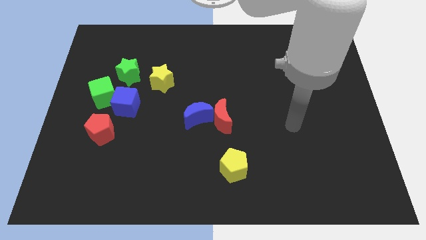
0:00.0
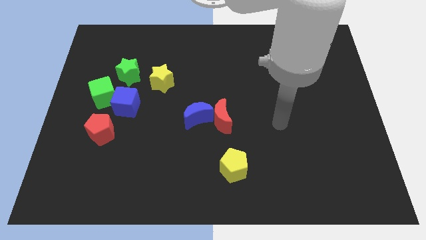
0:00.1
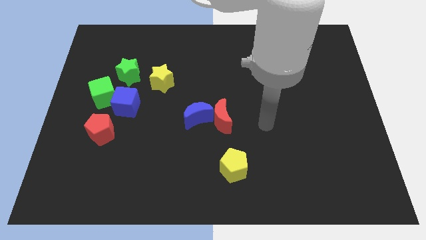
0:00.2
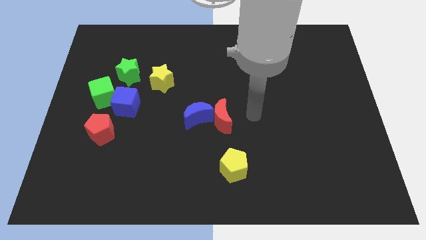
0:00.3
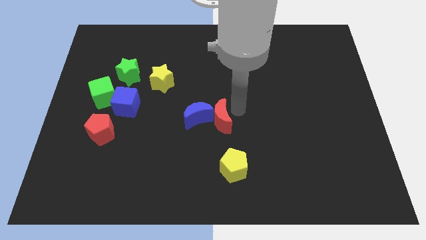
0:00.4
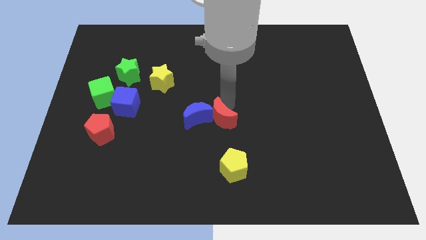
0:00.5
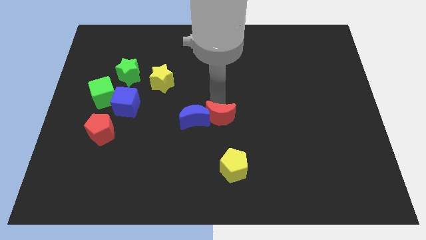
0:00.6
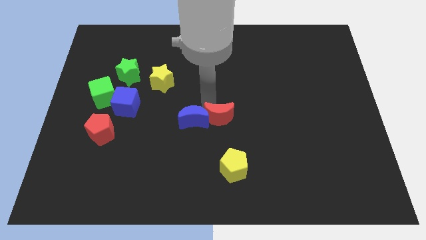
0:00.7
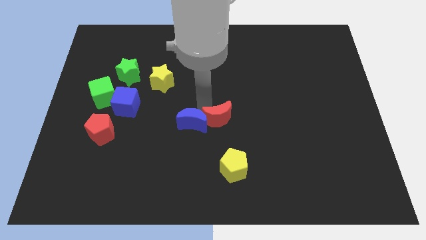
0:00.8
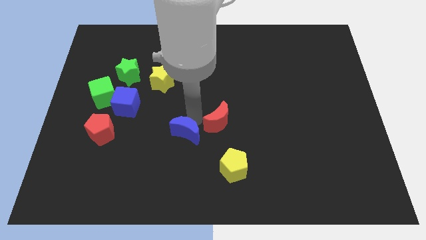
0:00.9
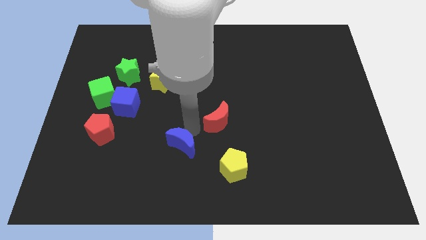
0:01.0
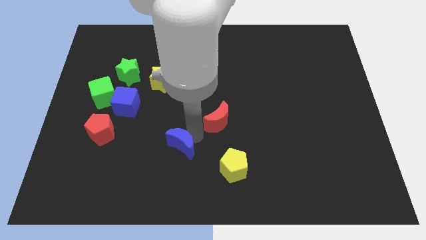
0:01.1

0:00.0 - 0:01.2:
separate the red moon from the blue moon

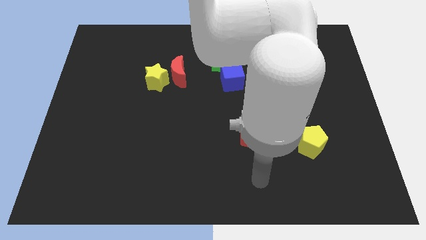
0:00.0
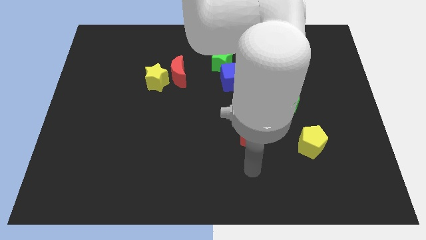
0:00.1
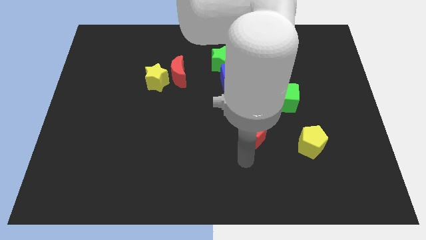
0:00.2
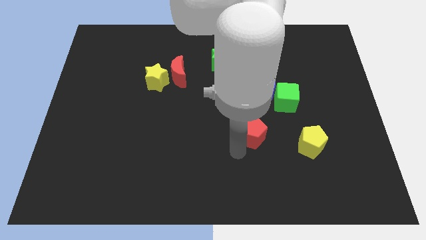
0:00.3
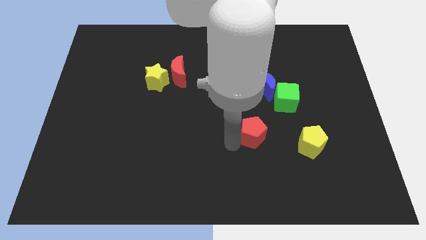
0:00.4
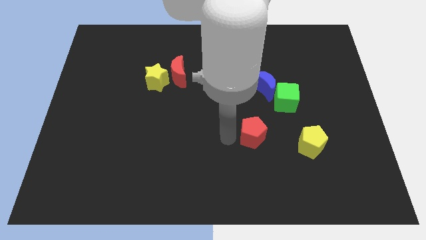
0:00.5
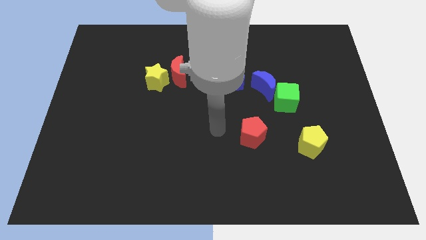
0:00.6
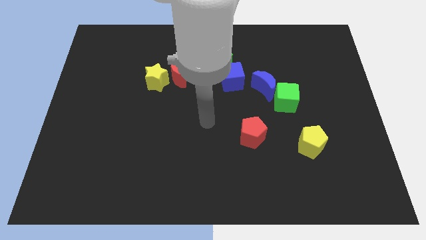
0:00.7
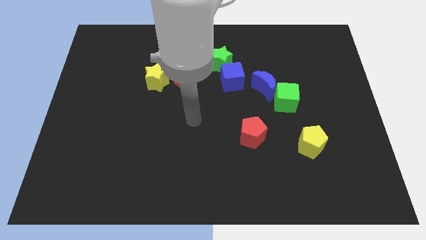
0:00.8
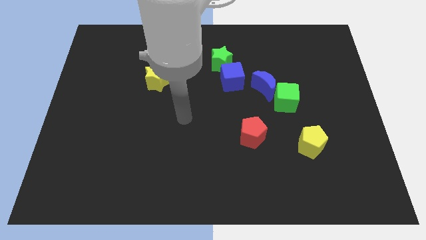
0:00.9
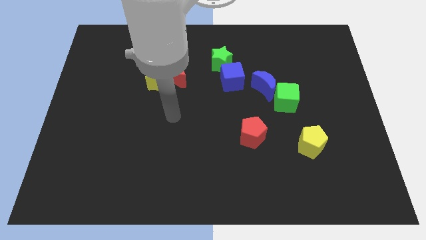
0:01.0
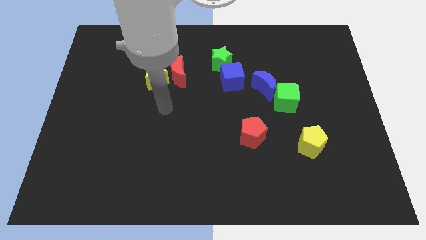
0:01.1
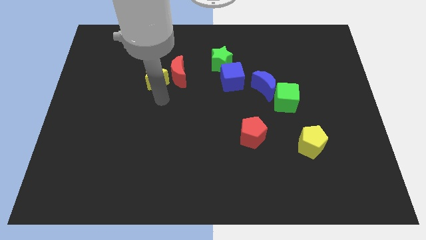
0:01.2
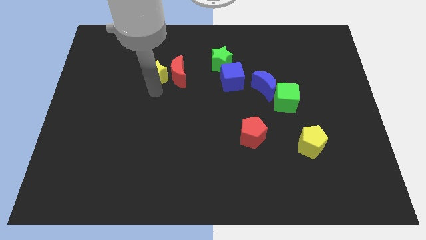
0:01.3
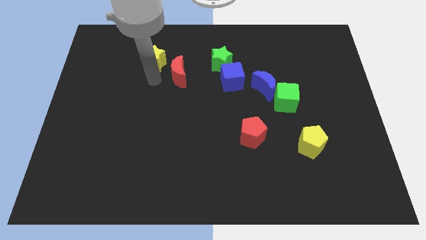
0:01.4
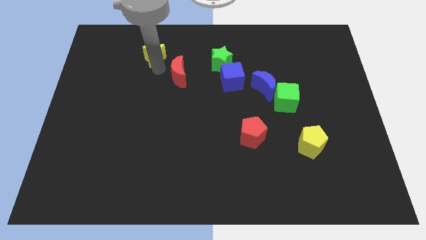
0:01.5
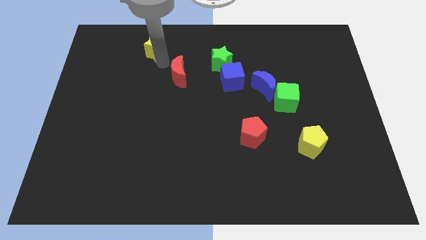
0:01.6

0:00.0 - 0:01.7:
move the red moon away from the yellow star

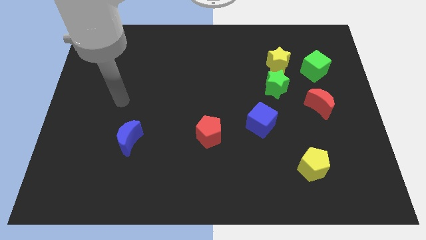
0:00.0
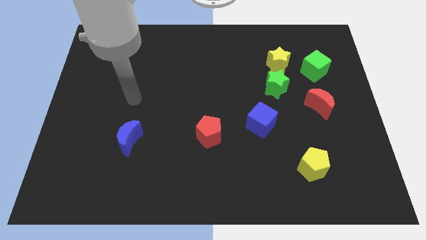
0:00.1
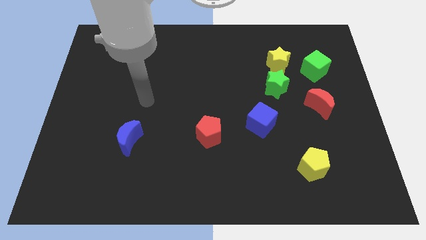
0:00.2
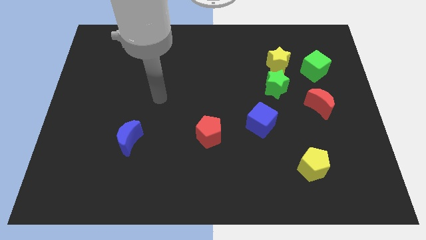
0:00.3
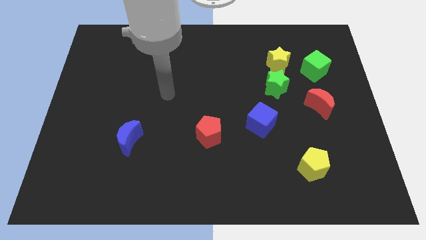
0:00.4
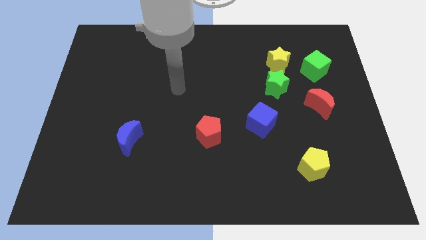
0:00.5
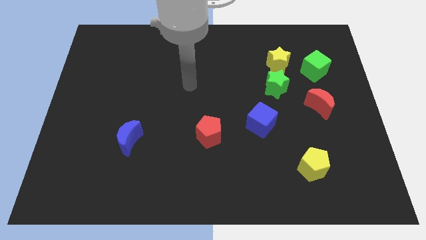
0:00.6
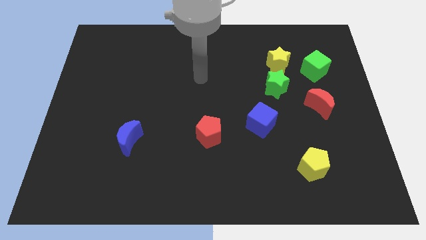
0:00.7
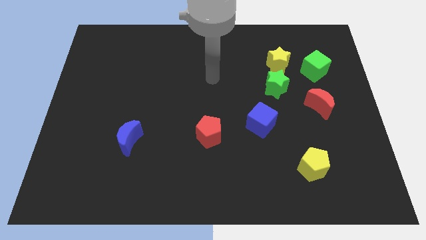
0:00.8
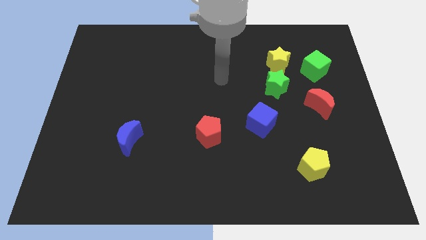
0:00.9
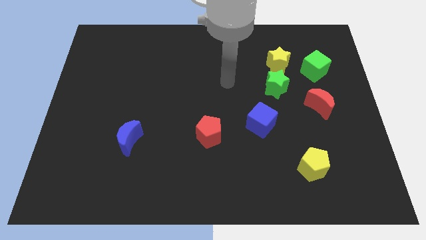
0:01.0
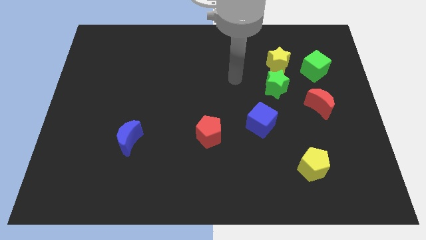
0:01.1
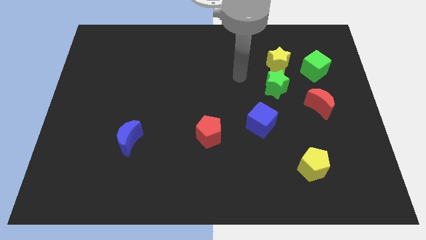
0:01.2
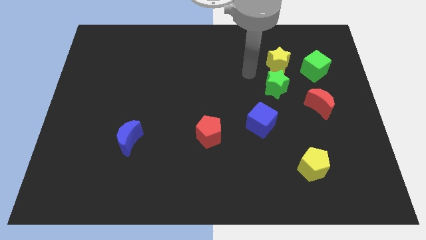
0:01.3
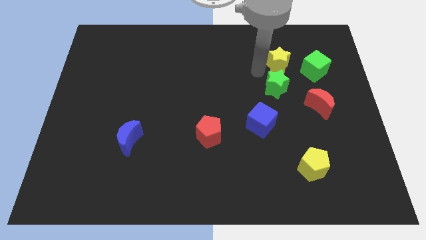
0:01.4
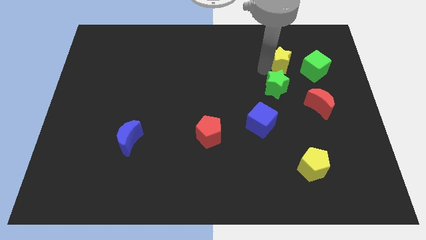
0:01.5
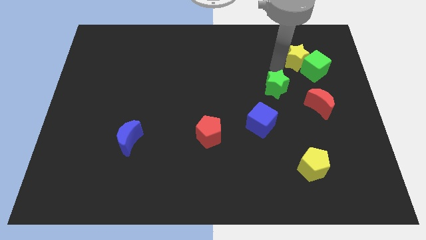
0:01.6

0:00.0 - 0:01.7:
separate the green star from the yellow star

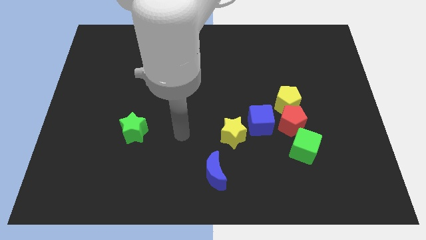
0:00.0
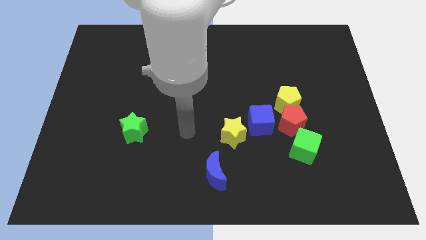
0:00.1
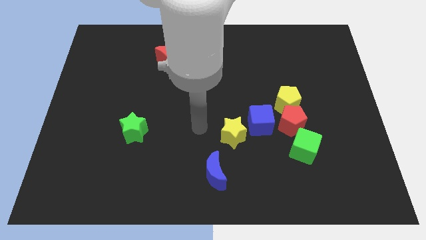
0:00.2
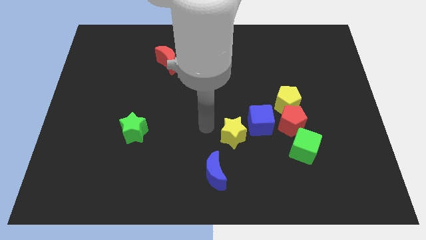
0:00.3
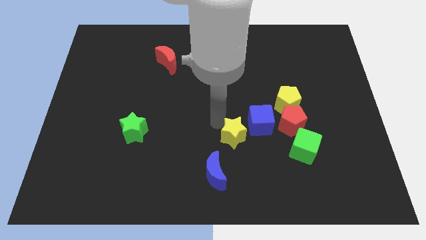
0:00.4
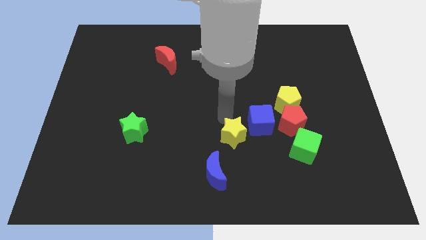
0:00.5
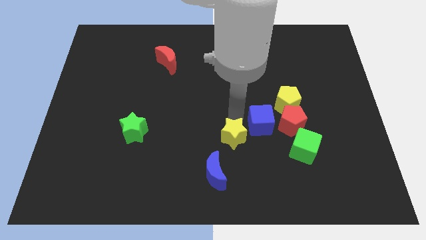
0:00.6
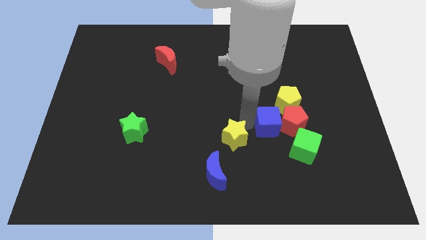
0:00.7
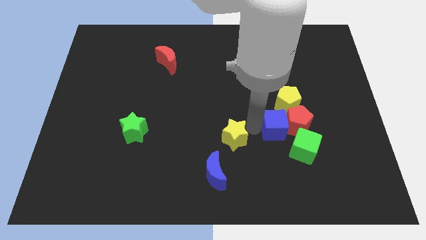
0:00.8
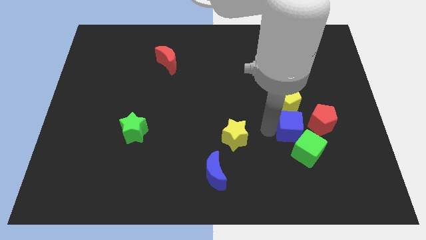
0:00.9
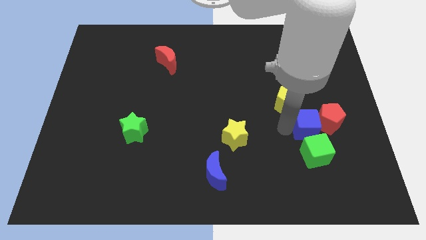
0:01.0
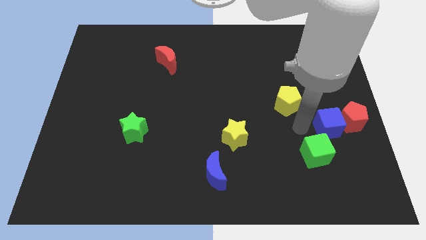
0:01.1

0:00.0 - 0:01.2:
move the red pentagon away from the yellow pentagon, blue cube, and green cube

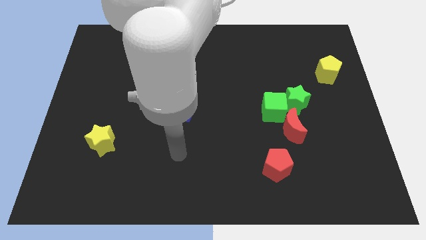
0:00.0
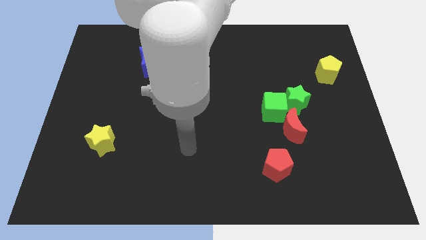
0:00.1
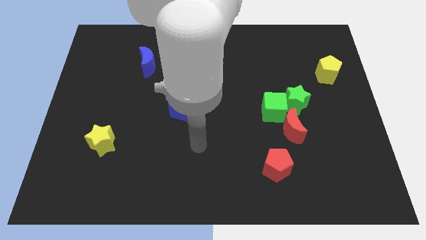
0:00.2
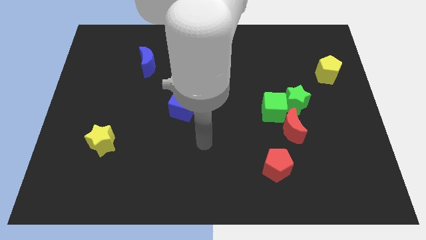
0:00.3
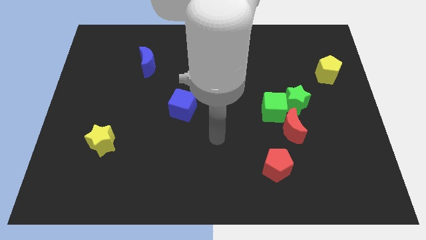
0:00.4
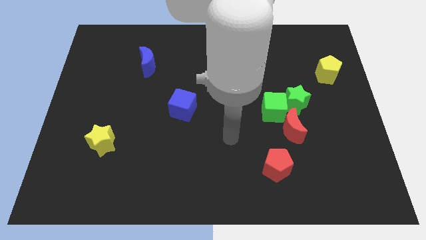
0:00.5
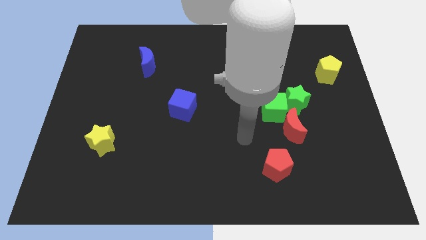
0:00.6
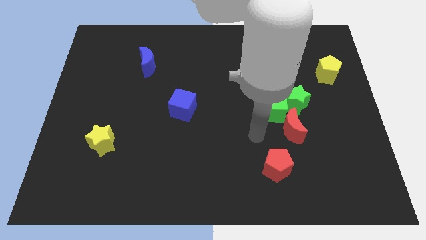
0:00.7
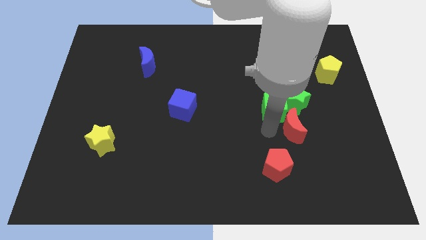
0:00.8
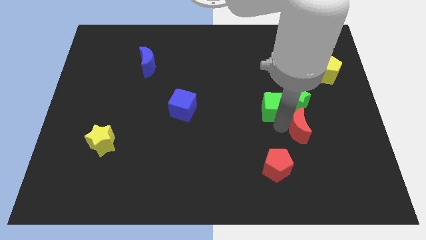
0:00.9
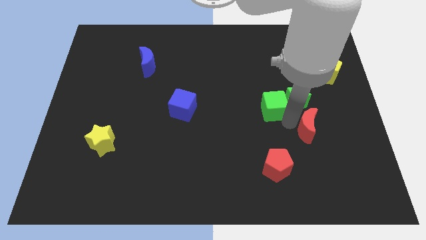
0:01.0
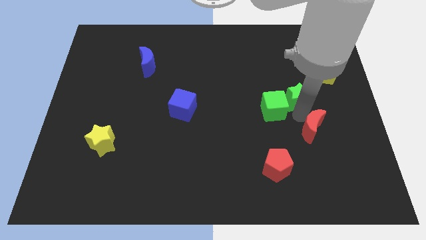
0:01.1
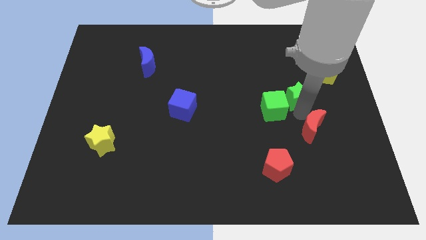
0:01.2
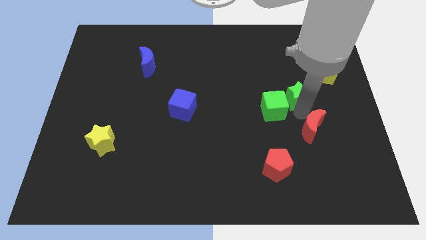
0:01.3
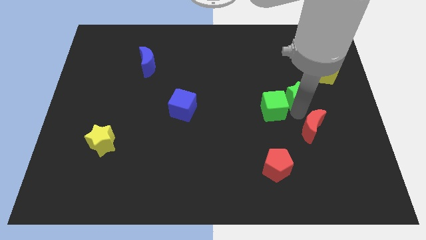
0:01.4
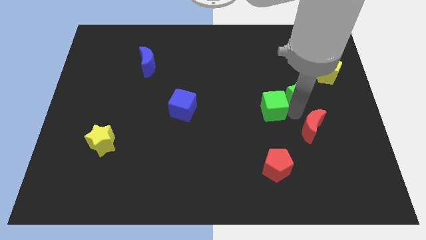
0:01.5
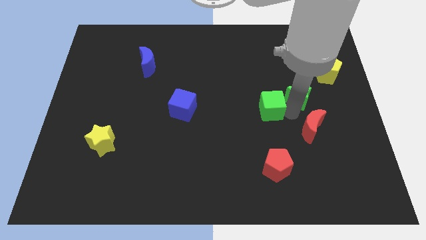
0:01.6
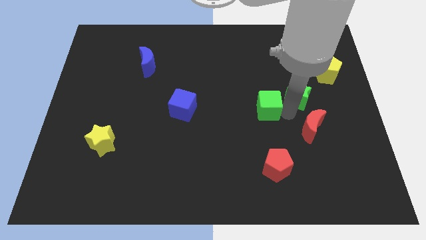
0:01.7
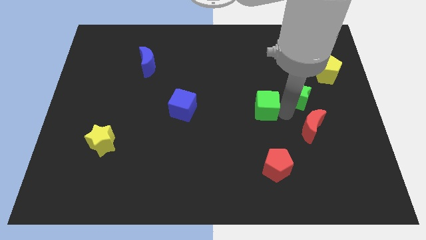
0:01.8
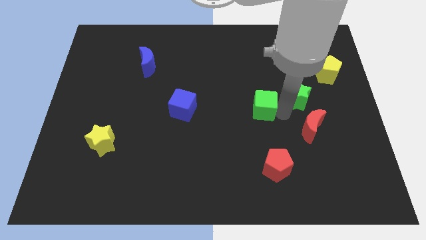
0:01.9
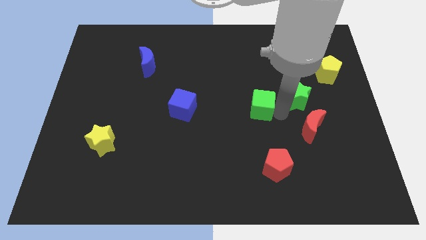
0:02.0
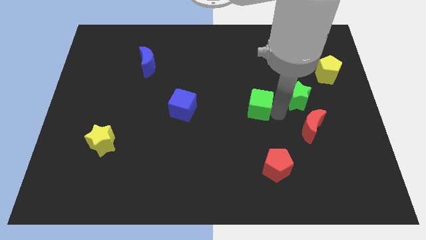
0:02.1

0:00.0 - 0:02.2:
move the green cube away from the green star and red moon

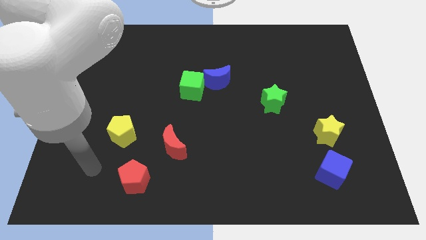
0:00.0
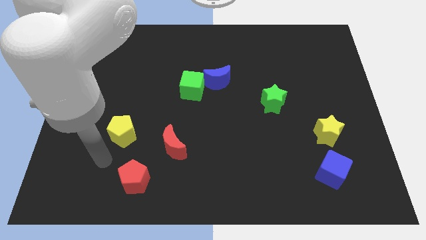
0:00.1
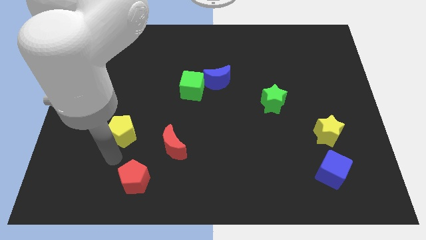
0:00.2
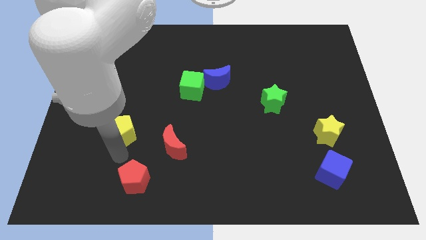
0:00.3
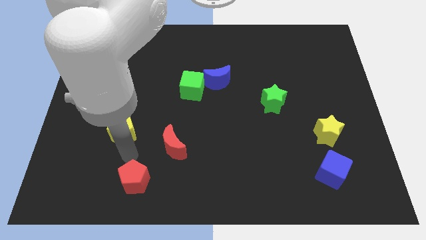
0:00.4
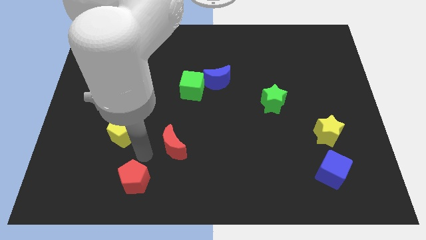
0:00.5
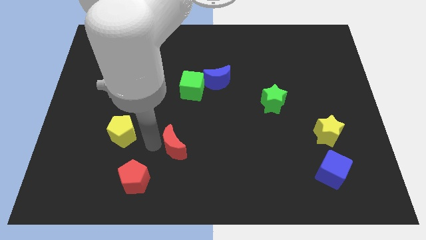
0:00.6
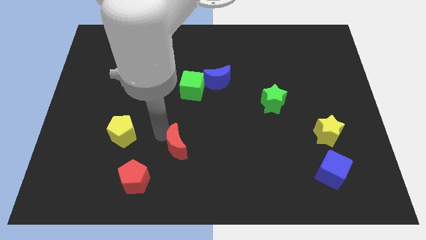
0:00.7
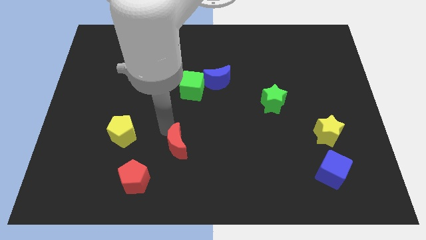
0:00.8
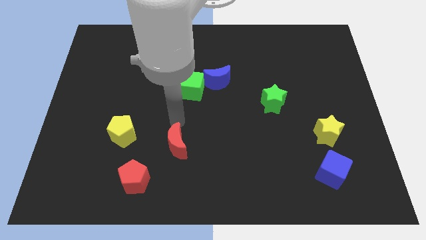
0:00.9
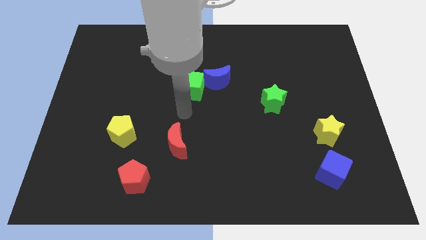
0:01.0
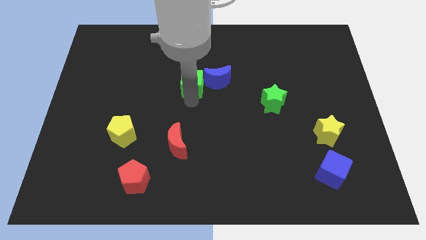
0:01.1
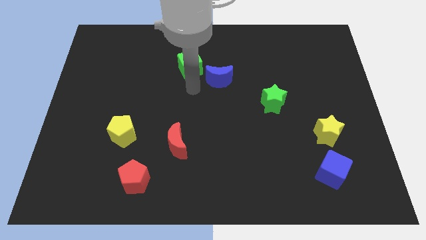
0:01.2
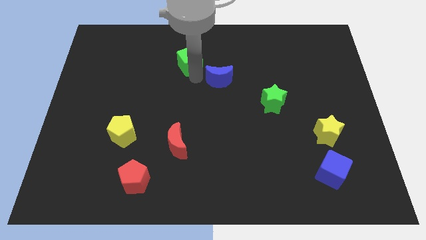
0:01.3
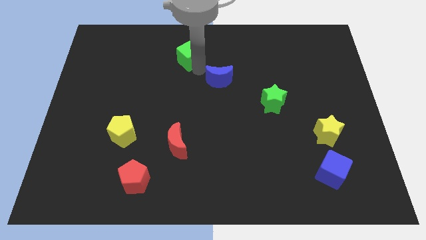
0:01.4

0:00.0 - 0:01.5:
pull the blue moon apart from the green cube
